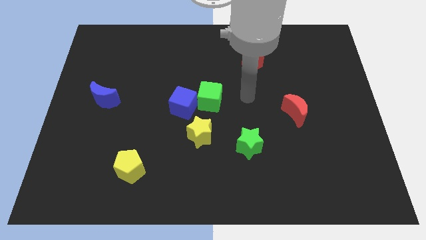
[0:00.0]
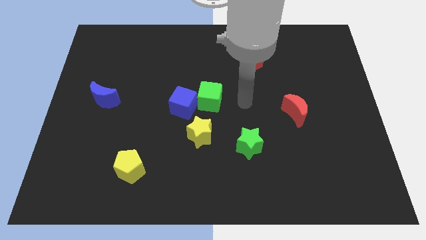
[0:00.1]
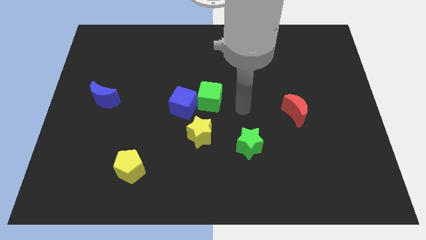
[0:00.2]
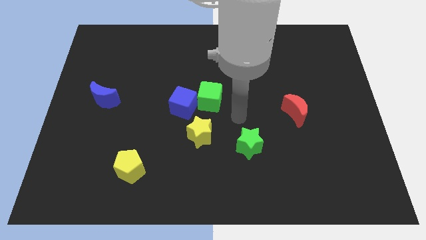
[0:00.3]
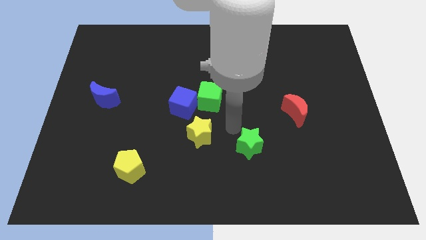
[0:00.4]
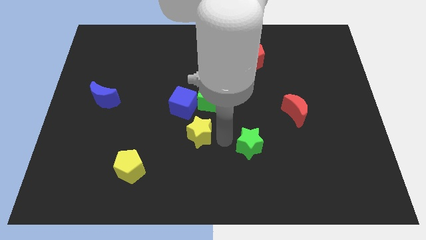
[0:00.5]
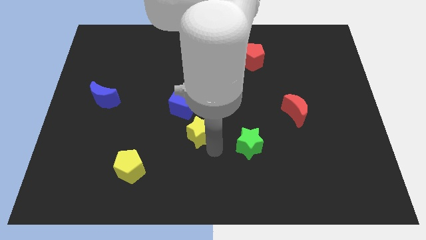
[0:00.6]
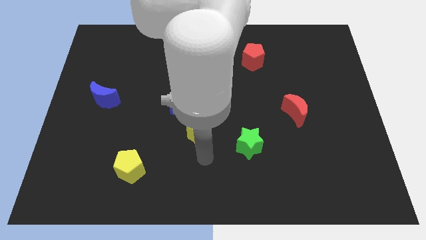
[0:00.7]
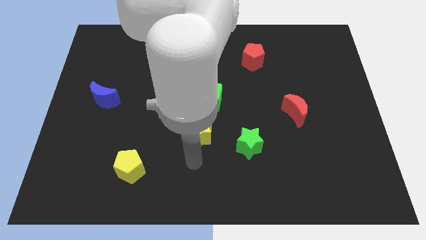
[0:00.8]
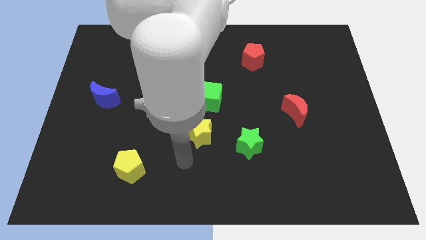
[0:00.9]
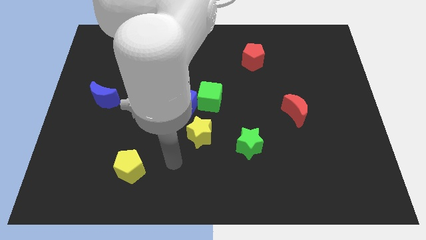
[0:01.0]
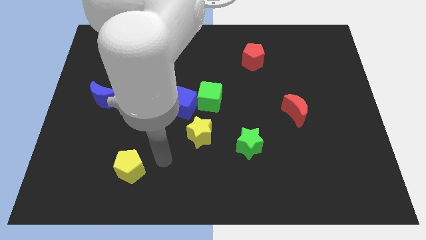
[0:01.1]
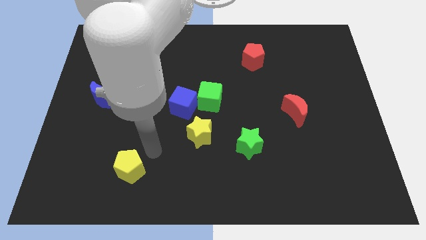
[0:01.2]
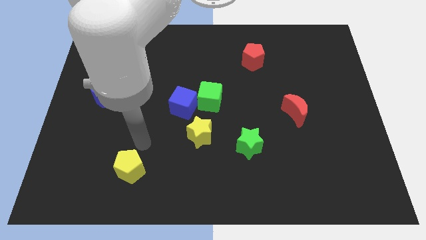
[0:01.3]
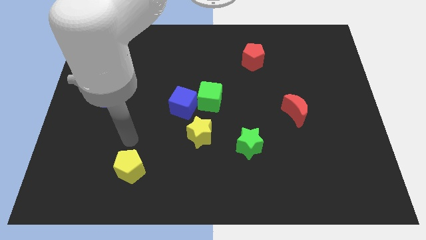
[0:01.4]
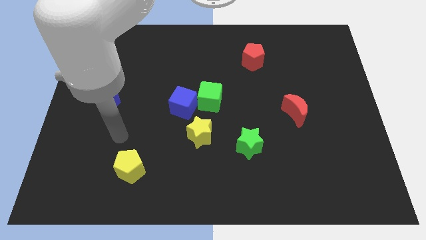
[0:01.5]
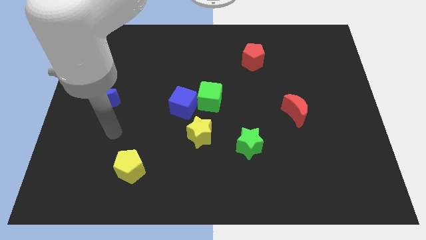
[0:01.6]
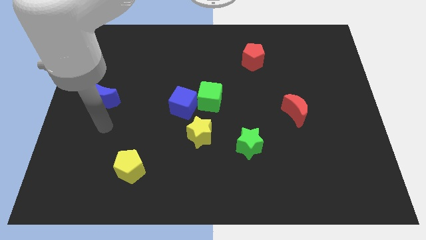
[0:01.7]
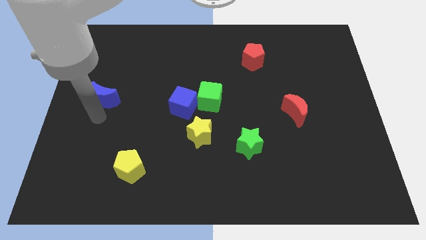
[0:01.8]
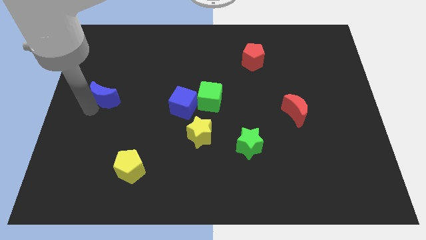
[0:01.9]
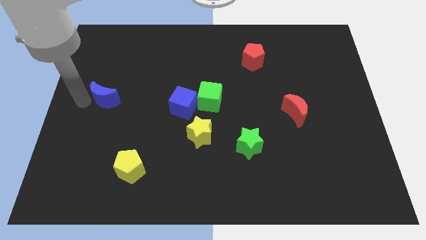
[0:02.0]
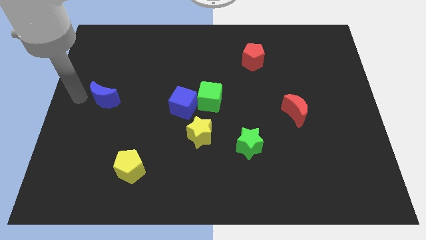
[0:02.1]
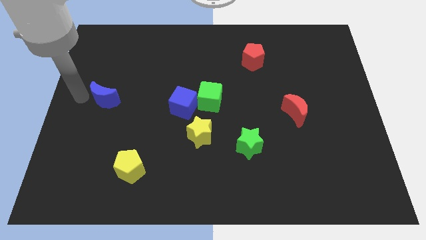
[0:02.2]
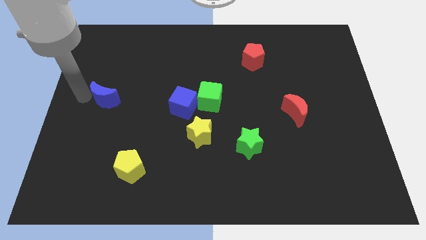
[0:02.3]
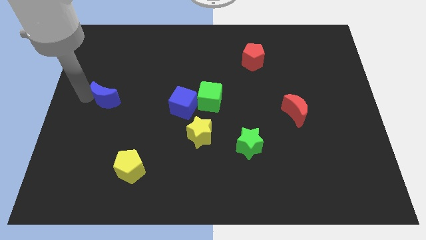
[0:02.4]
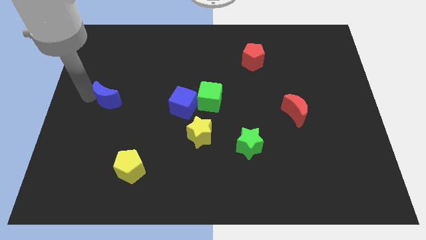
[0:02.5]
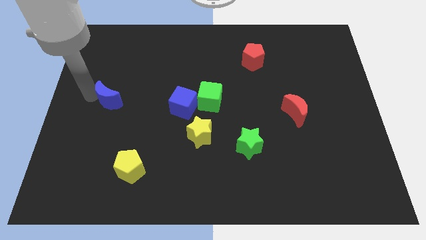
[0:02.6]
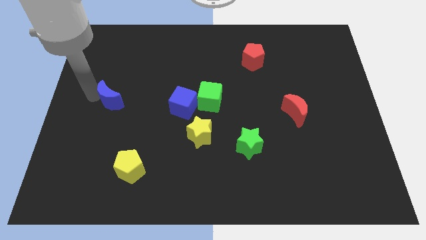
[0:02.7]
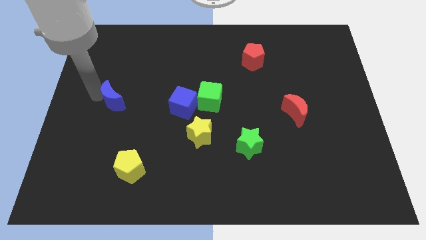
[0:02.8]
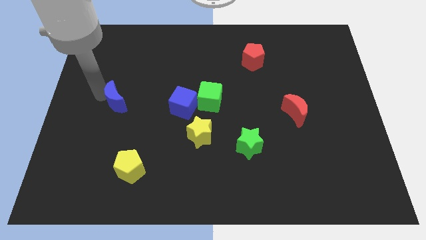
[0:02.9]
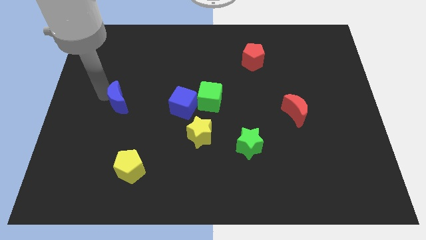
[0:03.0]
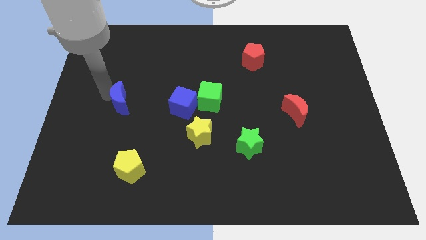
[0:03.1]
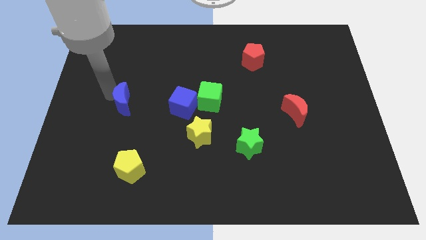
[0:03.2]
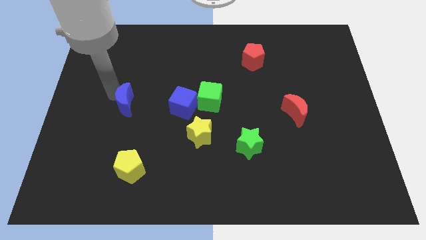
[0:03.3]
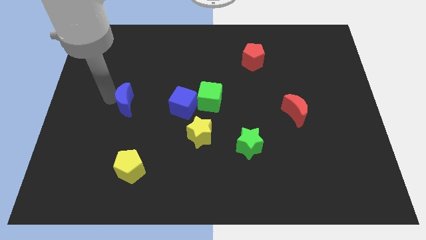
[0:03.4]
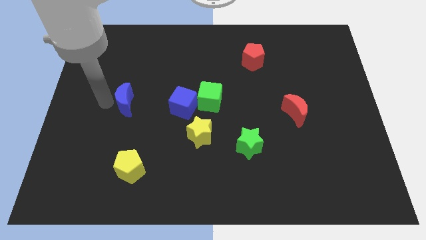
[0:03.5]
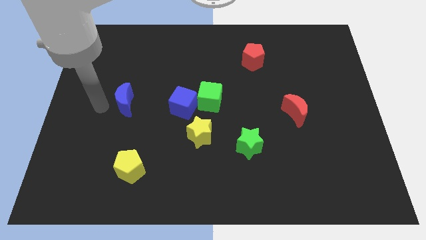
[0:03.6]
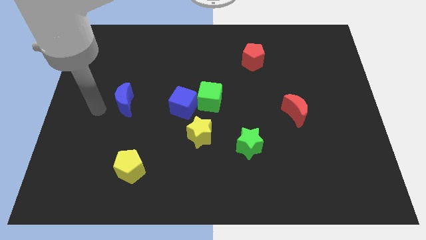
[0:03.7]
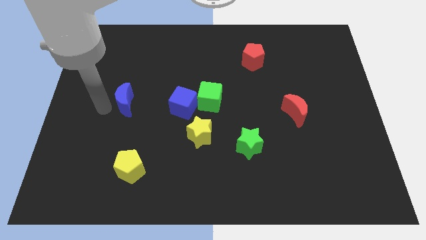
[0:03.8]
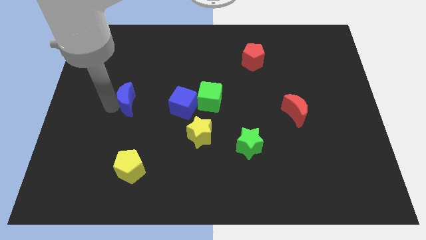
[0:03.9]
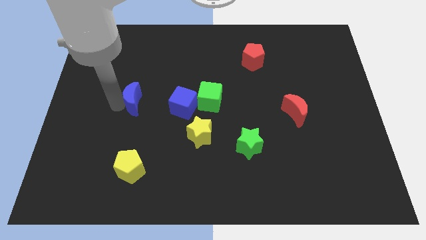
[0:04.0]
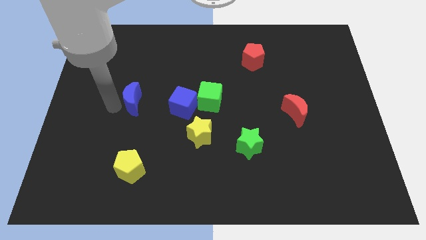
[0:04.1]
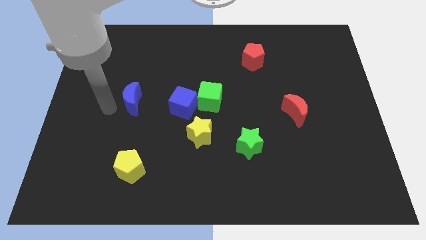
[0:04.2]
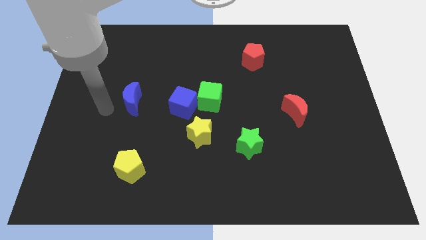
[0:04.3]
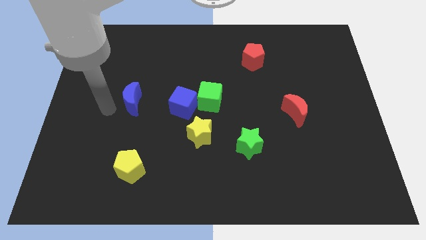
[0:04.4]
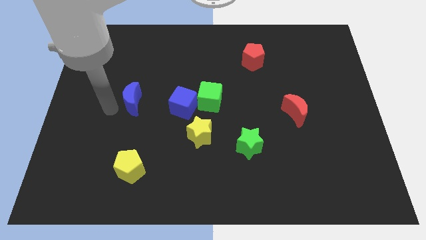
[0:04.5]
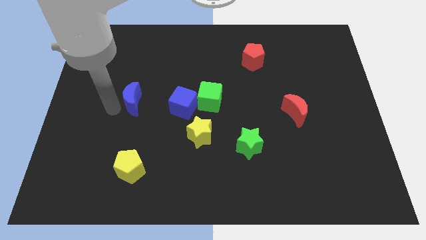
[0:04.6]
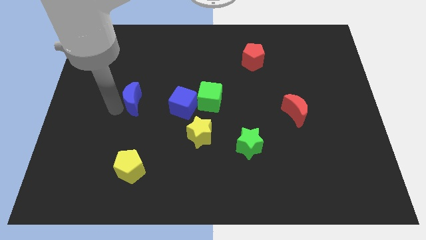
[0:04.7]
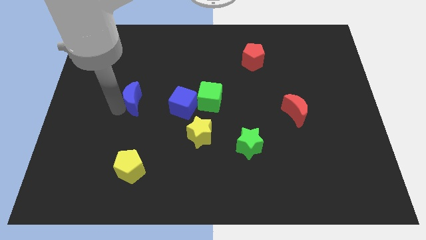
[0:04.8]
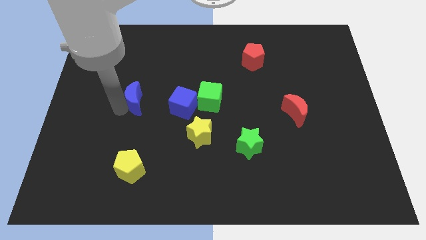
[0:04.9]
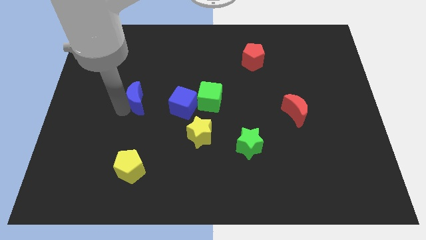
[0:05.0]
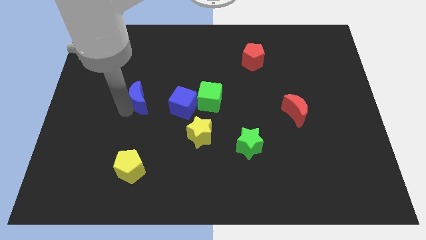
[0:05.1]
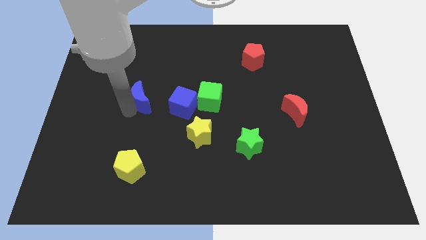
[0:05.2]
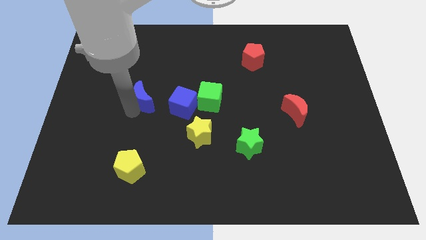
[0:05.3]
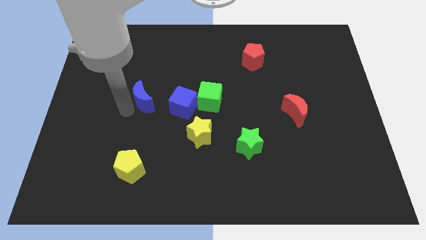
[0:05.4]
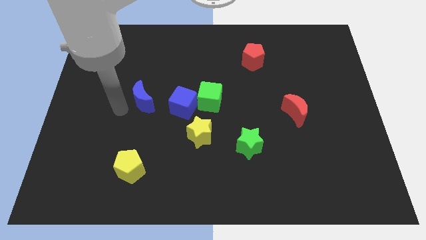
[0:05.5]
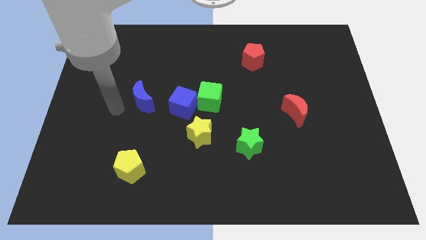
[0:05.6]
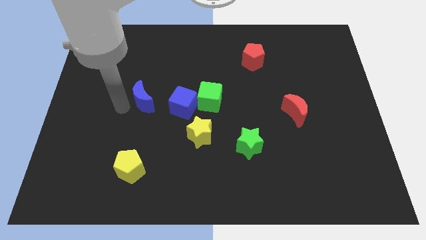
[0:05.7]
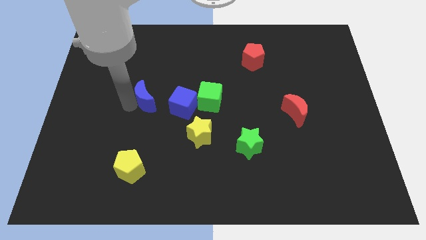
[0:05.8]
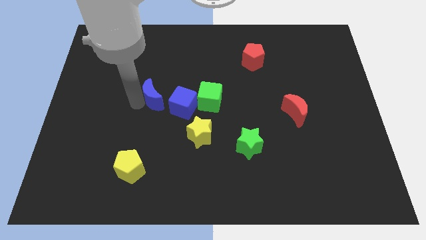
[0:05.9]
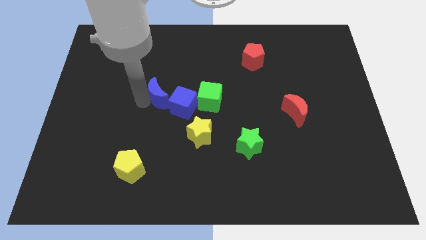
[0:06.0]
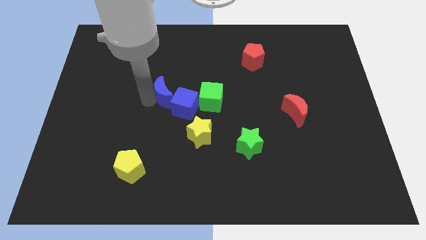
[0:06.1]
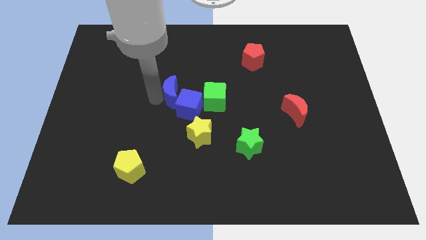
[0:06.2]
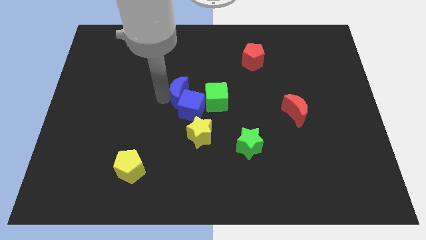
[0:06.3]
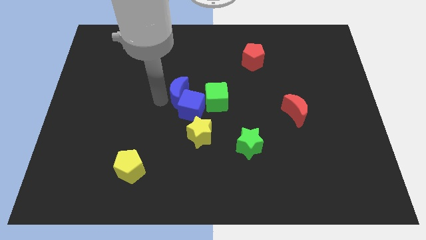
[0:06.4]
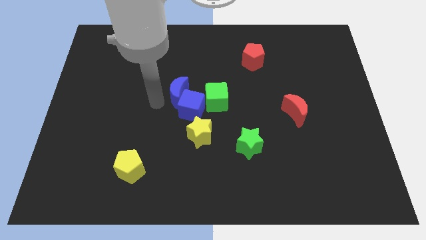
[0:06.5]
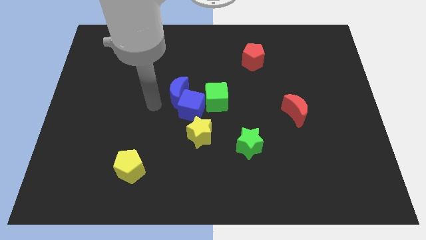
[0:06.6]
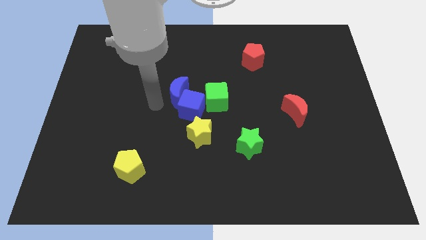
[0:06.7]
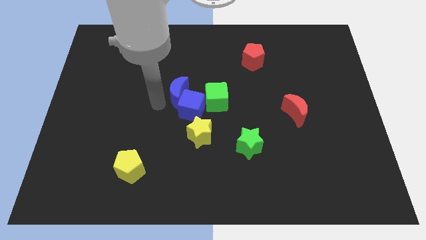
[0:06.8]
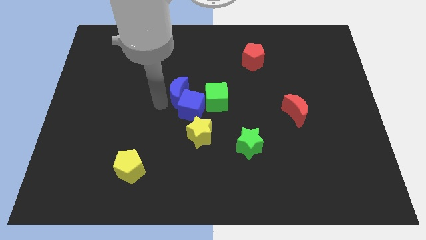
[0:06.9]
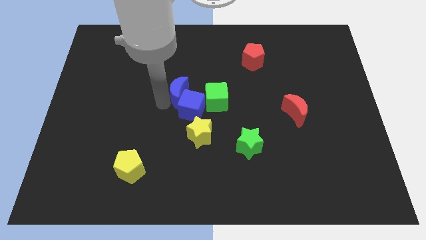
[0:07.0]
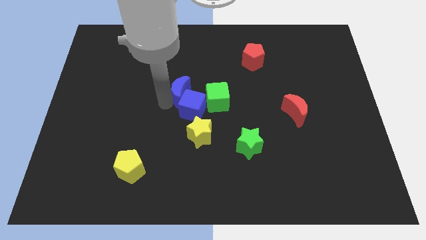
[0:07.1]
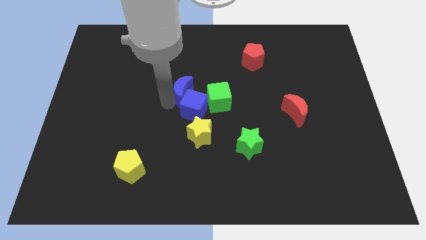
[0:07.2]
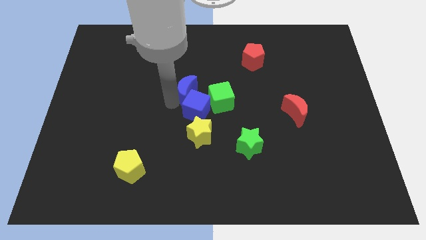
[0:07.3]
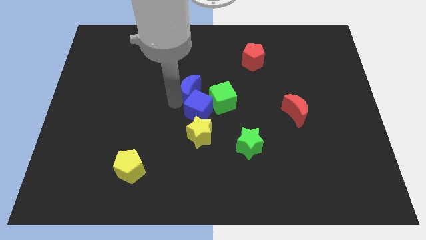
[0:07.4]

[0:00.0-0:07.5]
push the blue moon right

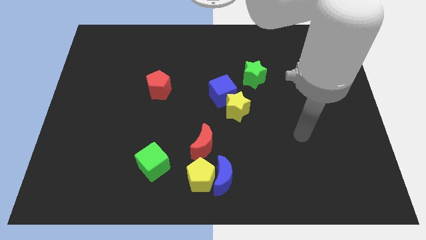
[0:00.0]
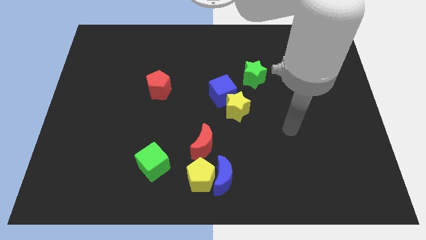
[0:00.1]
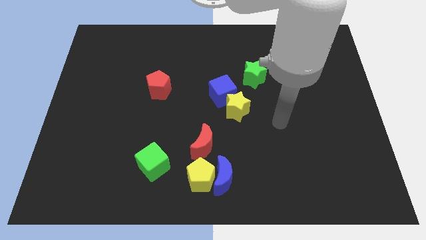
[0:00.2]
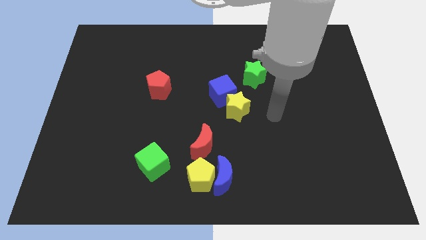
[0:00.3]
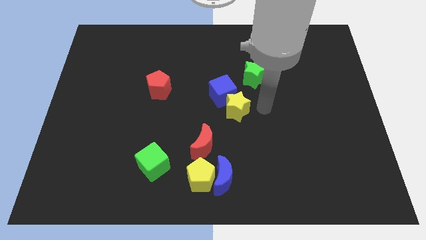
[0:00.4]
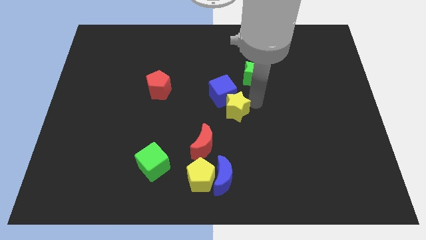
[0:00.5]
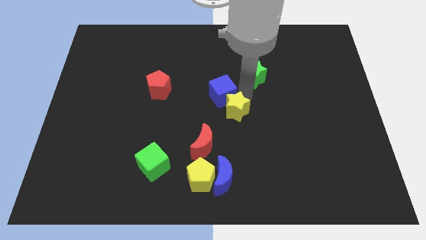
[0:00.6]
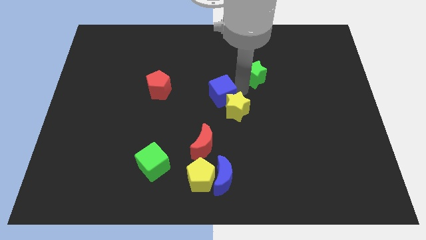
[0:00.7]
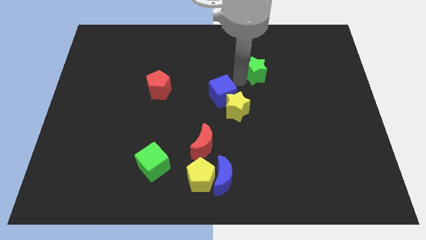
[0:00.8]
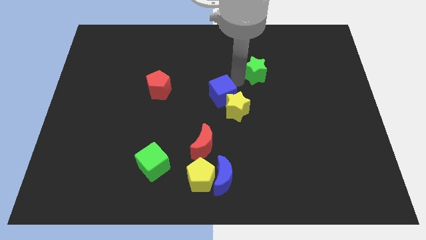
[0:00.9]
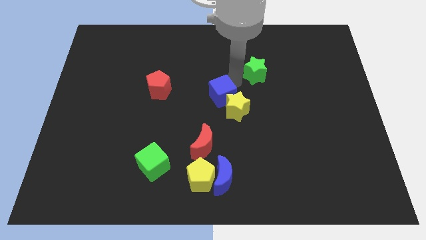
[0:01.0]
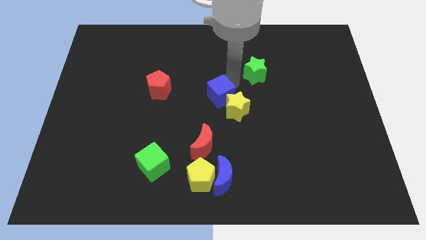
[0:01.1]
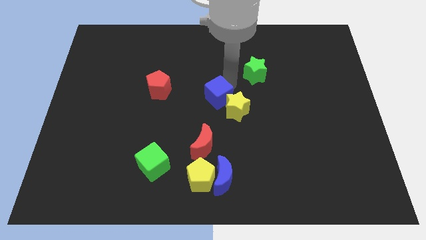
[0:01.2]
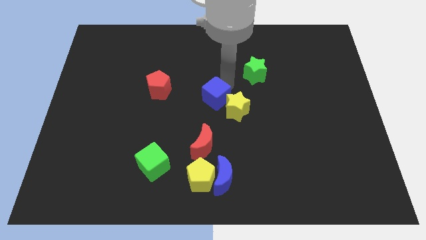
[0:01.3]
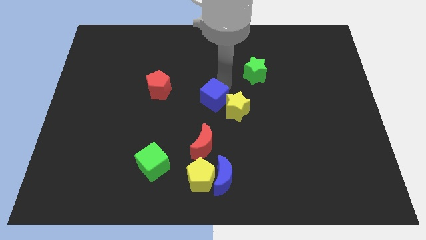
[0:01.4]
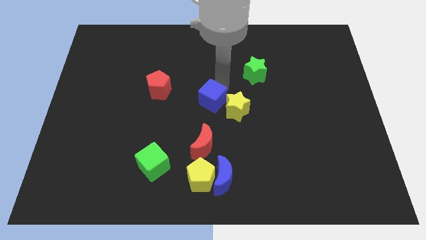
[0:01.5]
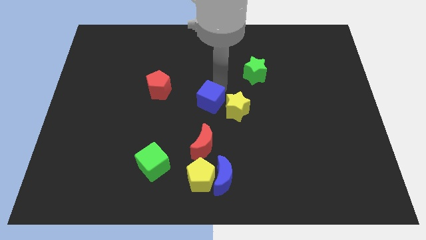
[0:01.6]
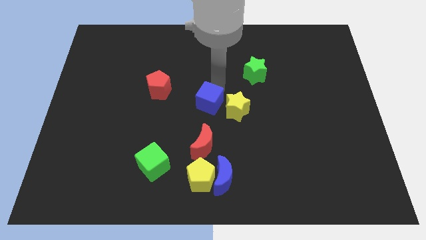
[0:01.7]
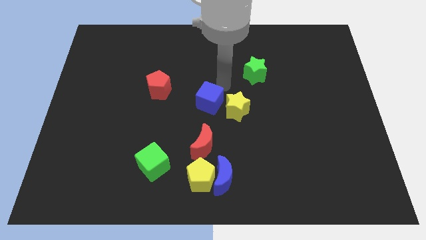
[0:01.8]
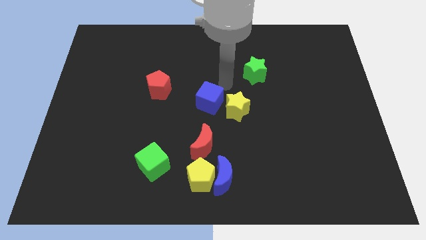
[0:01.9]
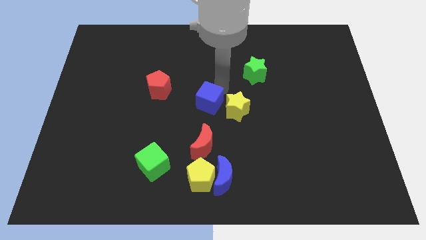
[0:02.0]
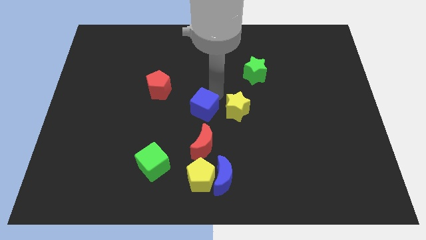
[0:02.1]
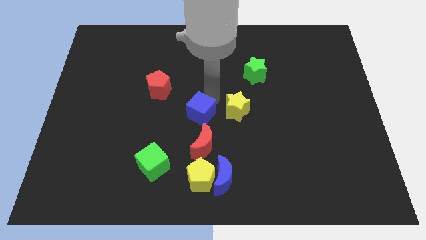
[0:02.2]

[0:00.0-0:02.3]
slightly push the blue cube downwards and left
